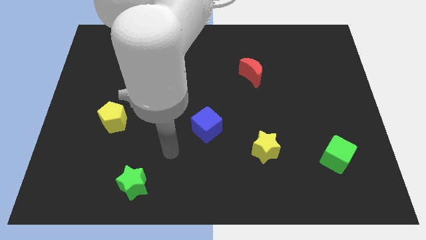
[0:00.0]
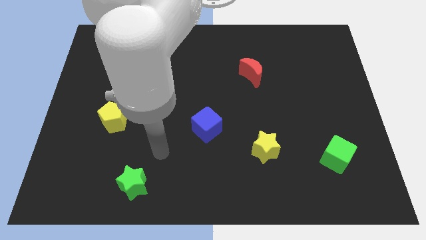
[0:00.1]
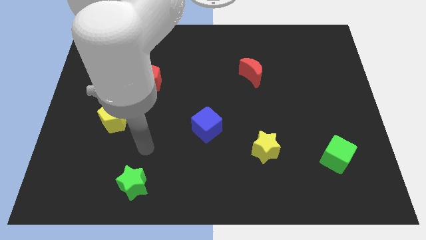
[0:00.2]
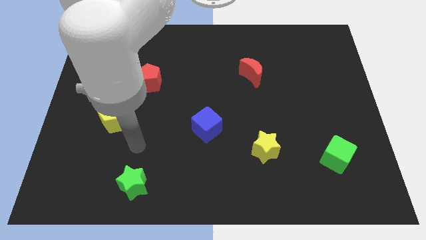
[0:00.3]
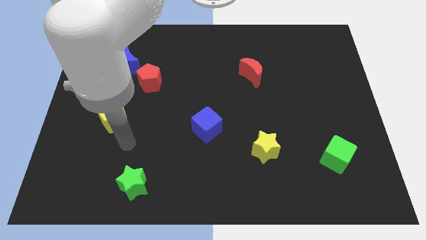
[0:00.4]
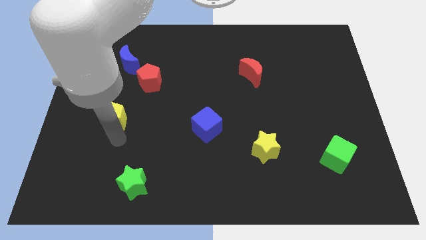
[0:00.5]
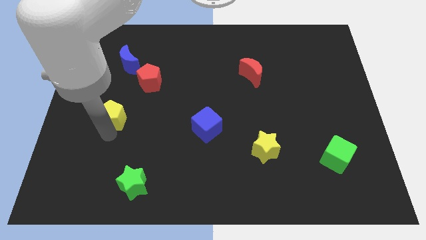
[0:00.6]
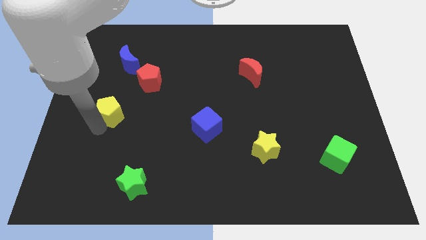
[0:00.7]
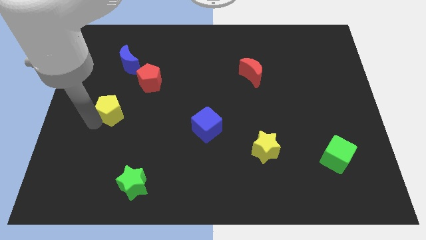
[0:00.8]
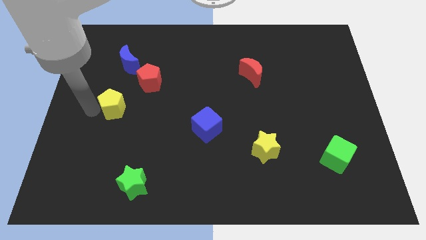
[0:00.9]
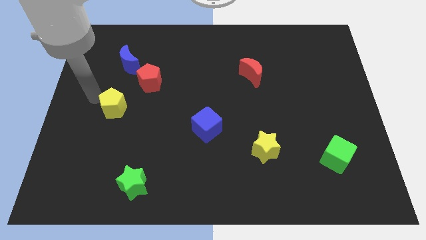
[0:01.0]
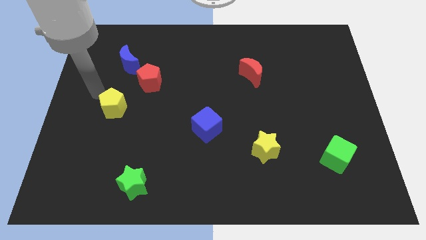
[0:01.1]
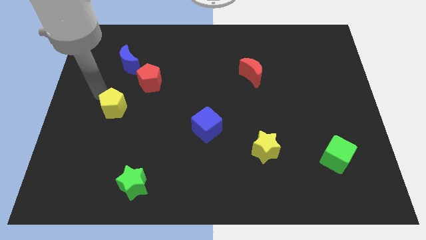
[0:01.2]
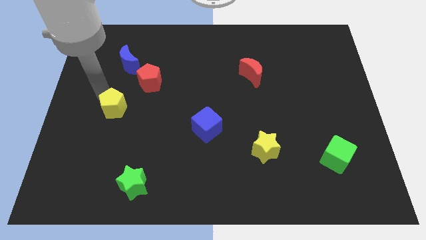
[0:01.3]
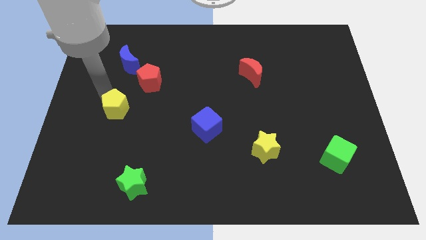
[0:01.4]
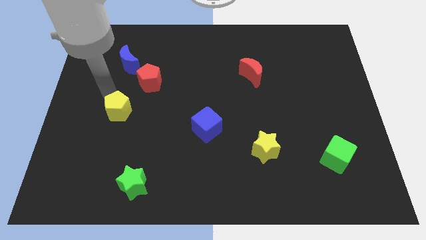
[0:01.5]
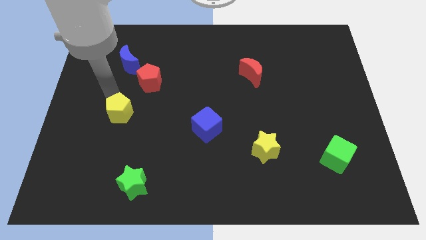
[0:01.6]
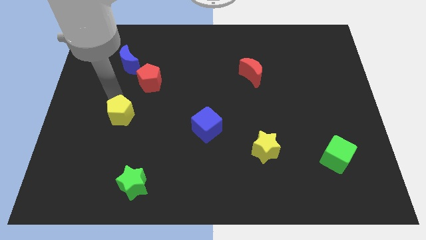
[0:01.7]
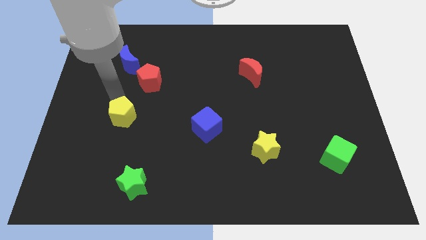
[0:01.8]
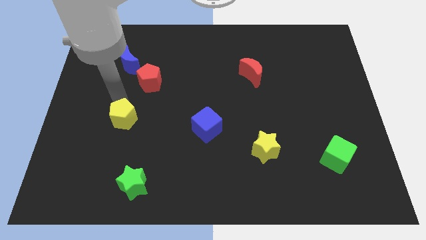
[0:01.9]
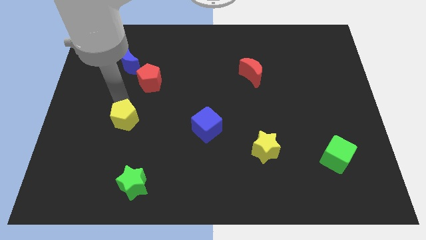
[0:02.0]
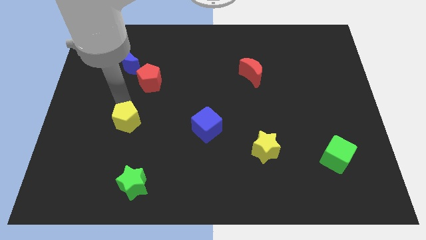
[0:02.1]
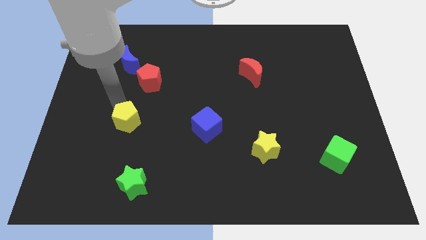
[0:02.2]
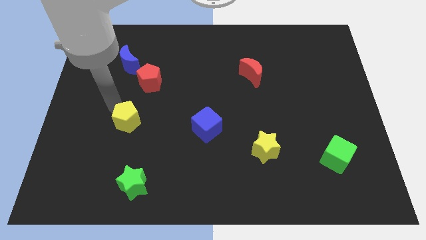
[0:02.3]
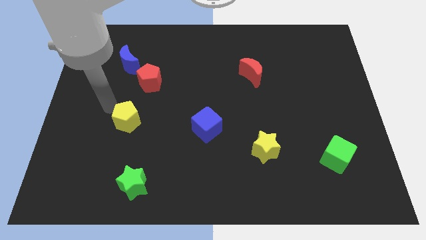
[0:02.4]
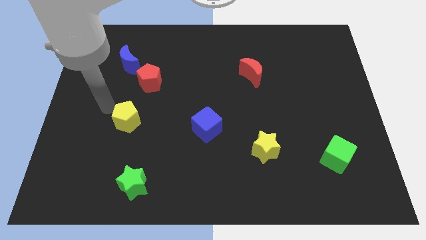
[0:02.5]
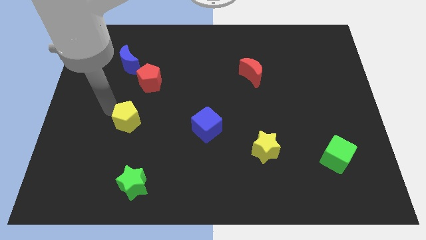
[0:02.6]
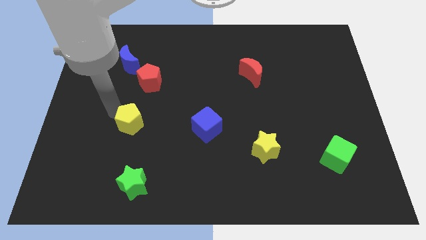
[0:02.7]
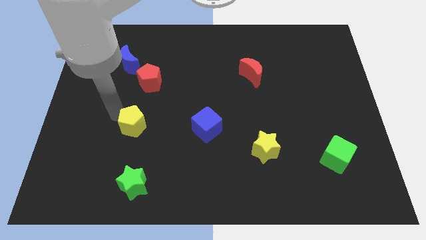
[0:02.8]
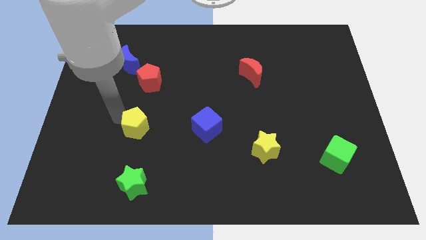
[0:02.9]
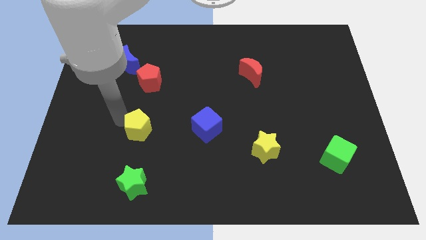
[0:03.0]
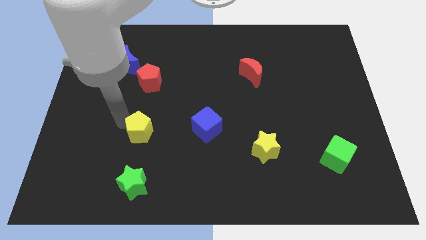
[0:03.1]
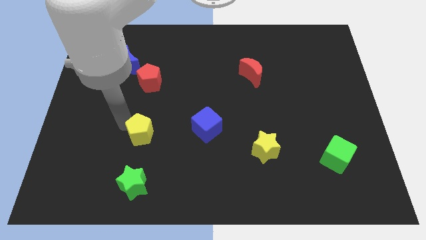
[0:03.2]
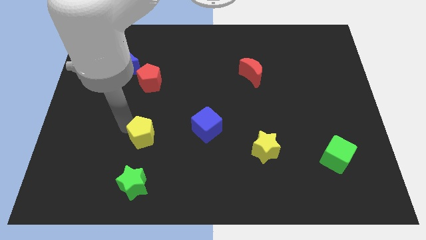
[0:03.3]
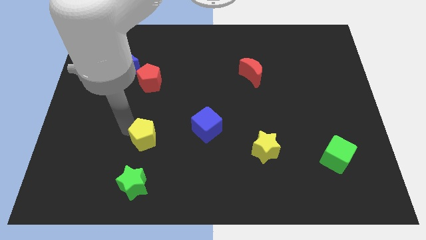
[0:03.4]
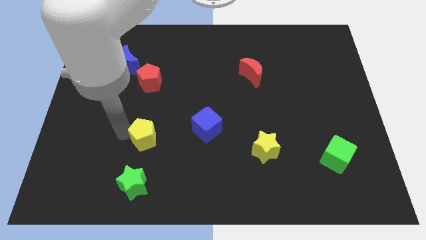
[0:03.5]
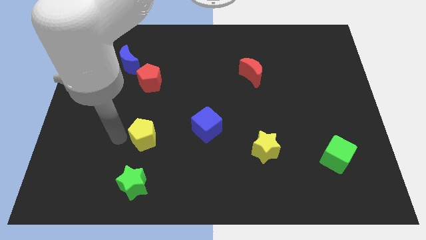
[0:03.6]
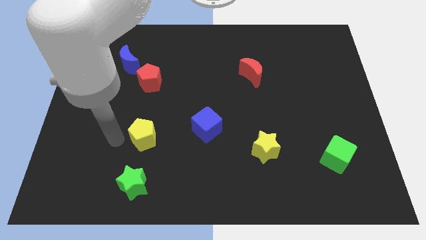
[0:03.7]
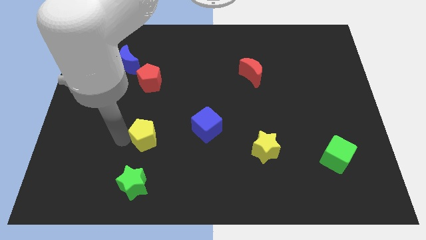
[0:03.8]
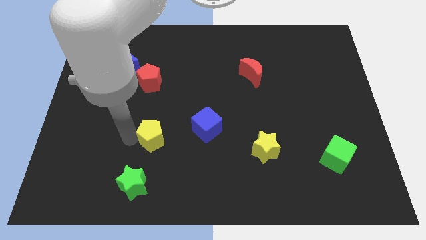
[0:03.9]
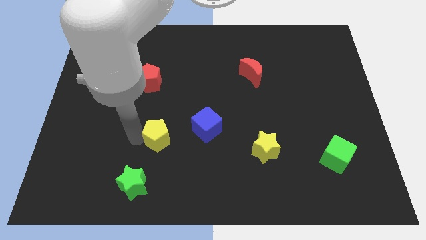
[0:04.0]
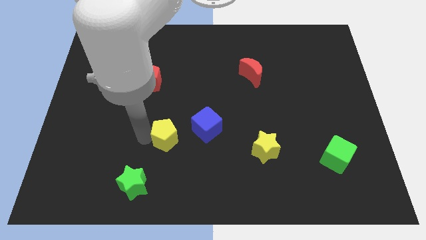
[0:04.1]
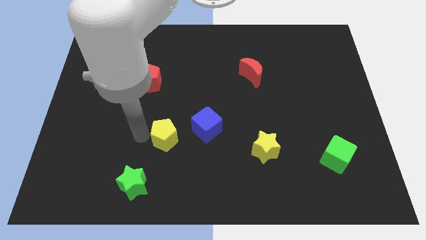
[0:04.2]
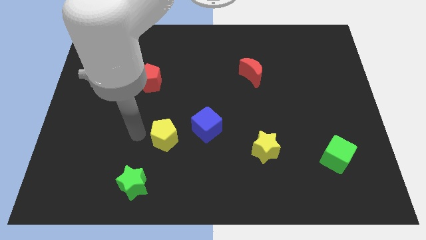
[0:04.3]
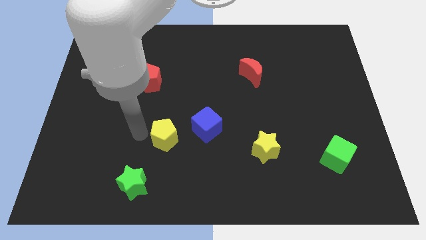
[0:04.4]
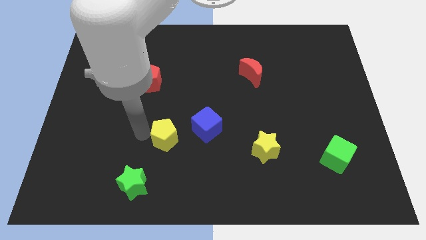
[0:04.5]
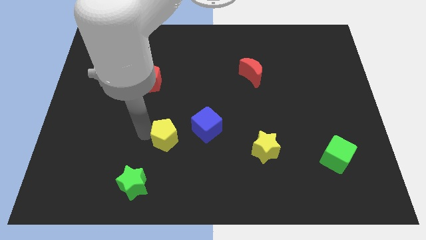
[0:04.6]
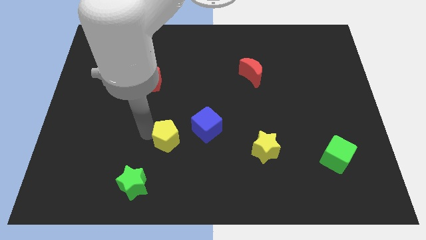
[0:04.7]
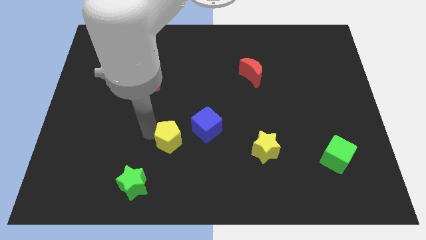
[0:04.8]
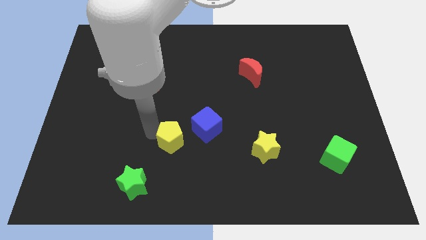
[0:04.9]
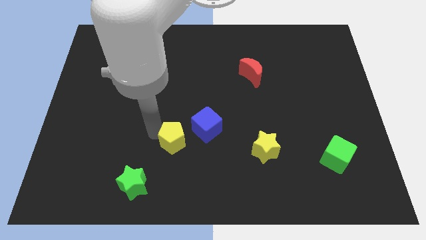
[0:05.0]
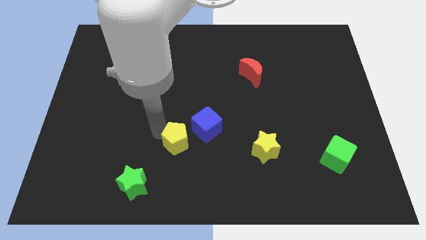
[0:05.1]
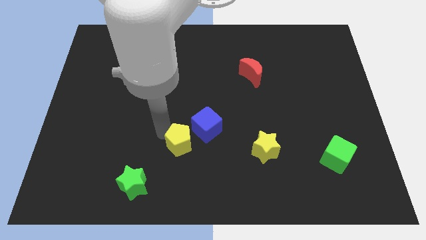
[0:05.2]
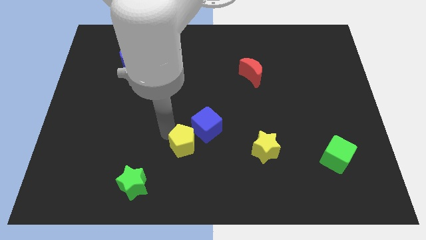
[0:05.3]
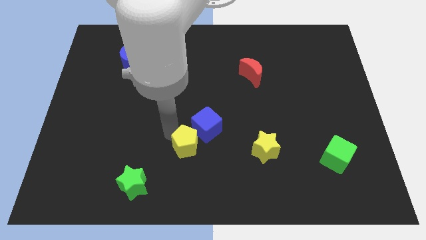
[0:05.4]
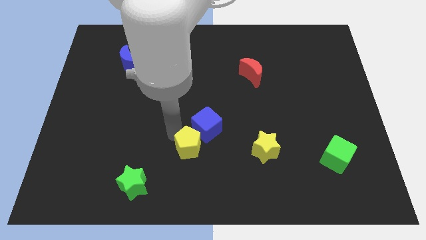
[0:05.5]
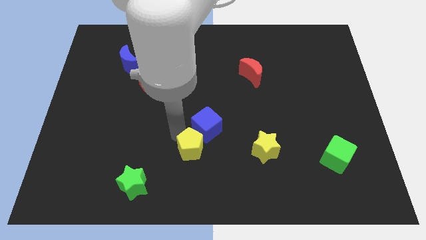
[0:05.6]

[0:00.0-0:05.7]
move the yellow pentagon just left of the yellow star

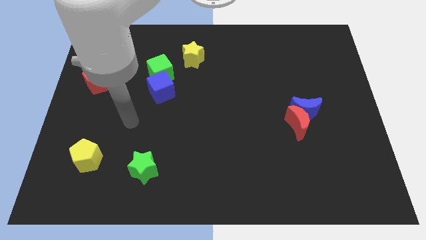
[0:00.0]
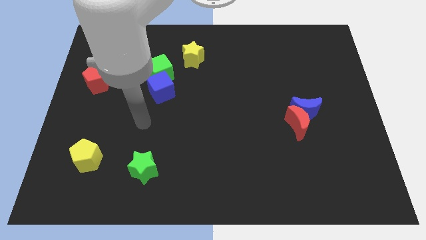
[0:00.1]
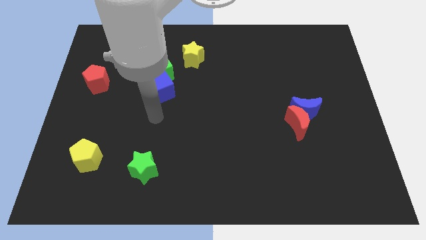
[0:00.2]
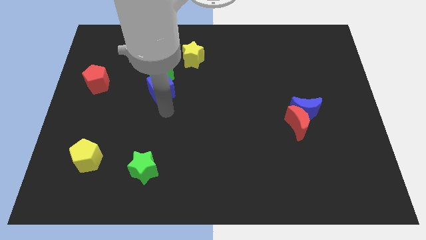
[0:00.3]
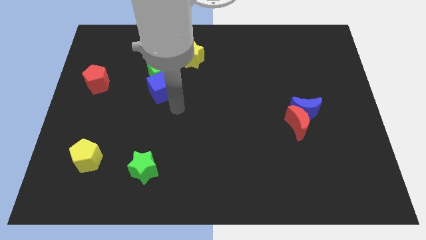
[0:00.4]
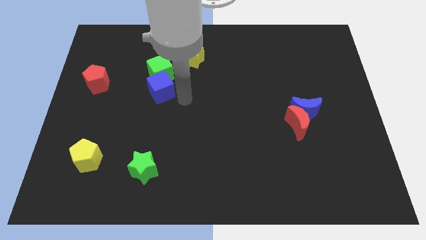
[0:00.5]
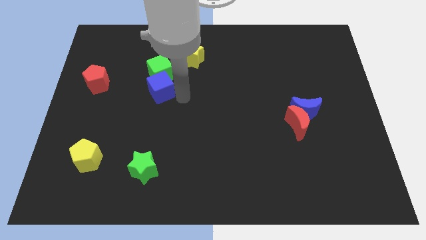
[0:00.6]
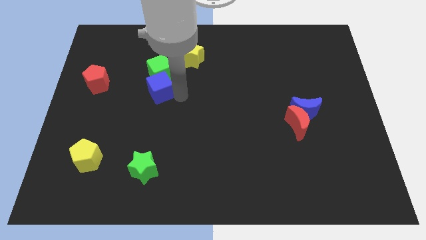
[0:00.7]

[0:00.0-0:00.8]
push the blue cube to the right of the red pentagon
